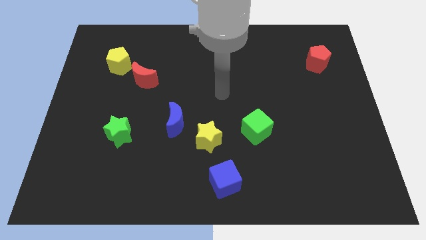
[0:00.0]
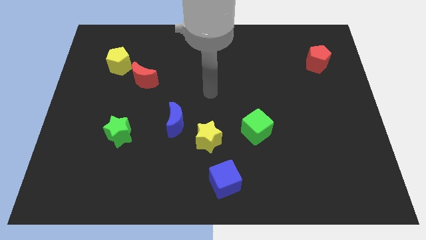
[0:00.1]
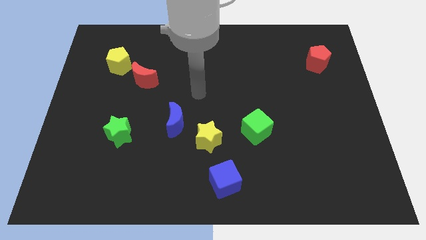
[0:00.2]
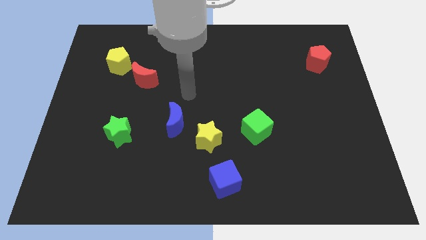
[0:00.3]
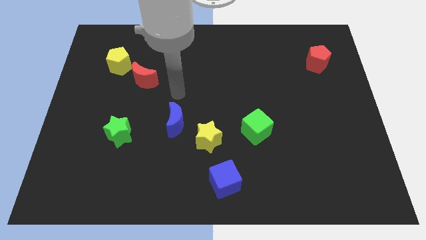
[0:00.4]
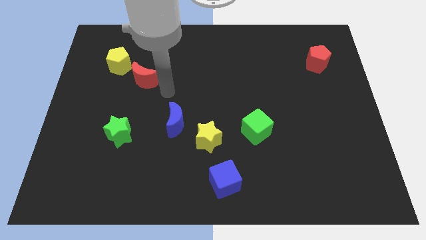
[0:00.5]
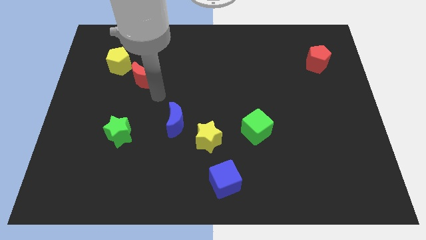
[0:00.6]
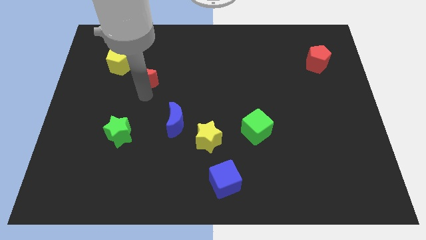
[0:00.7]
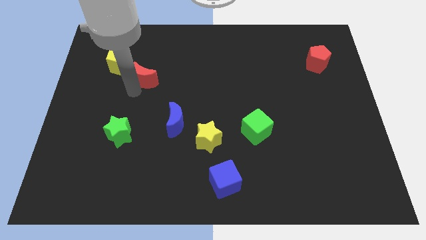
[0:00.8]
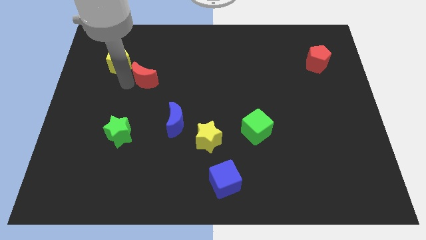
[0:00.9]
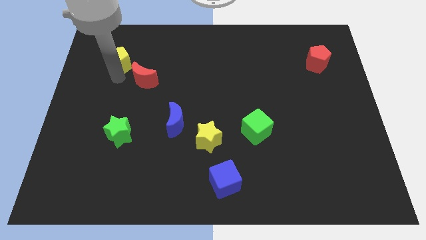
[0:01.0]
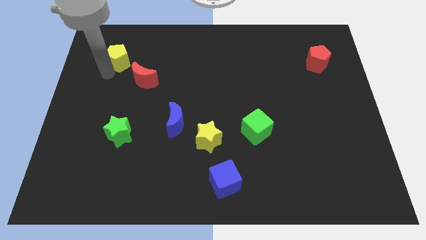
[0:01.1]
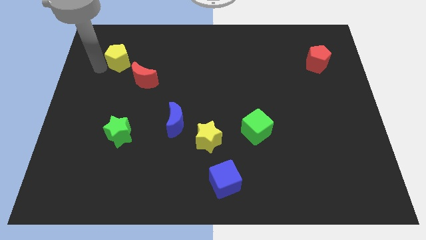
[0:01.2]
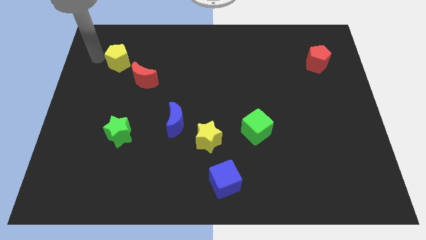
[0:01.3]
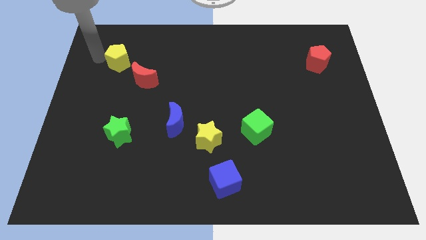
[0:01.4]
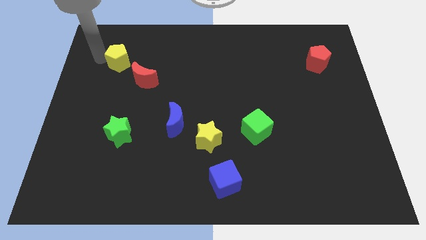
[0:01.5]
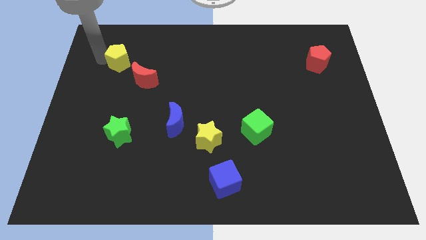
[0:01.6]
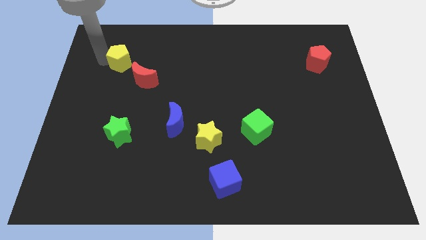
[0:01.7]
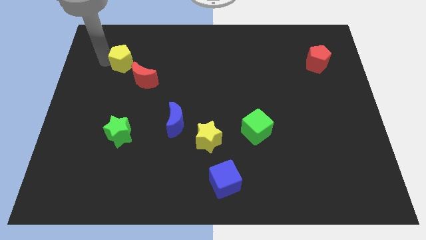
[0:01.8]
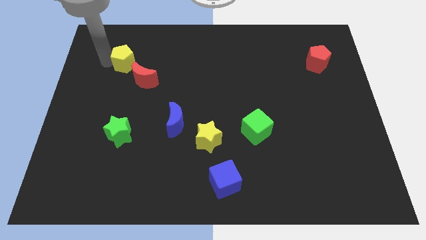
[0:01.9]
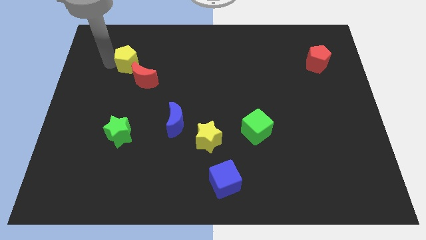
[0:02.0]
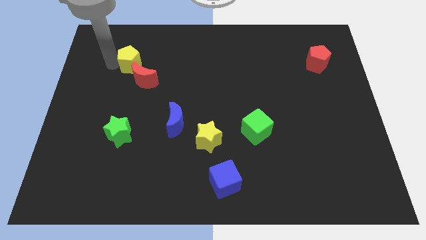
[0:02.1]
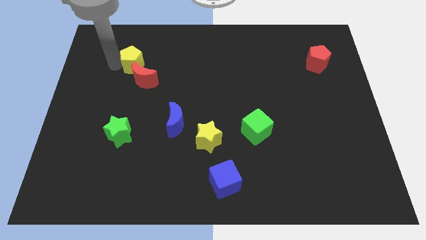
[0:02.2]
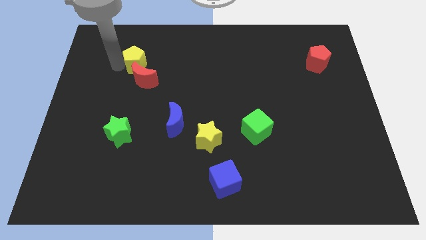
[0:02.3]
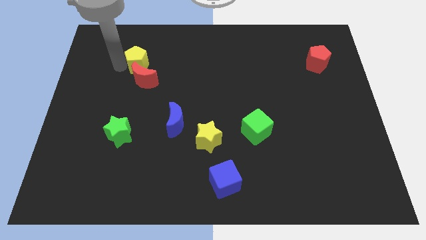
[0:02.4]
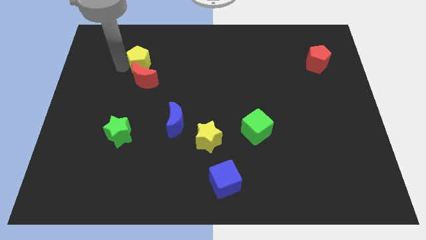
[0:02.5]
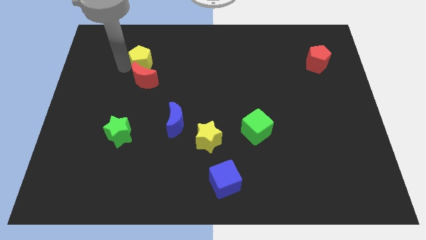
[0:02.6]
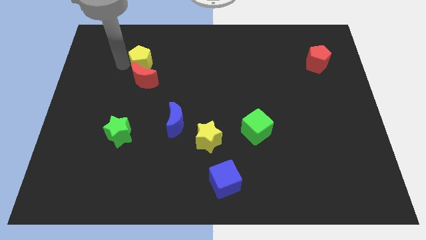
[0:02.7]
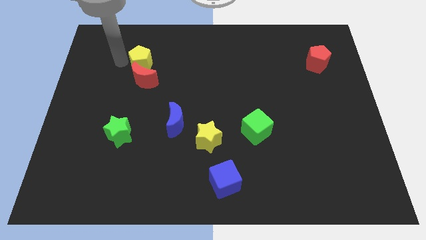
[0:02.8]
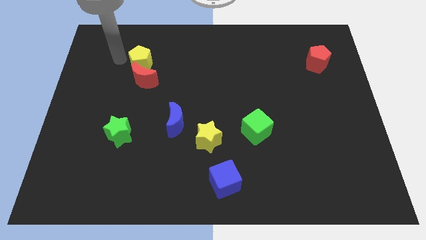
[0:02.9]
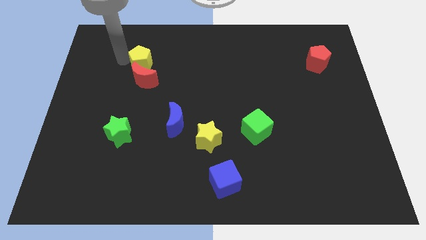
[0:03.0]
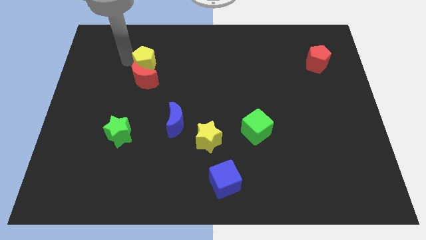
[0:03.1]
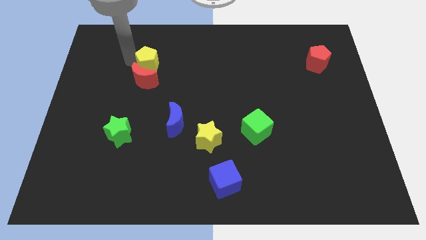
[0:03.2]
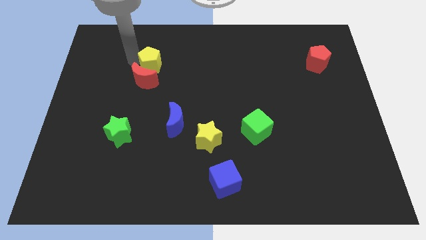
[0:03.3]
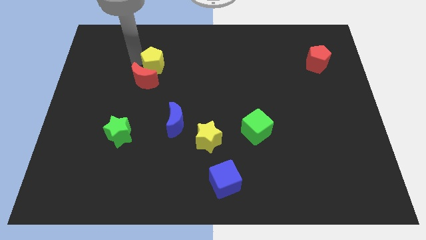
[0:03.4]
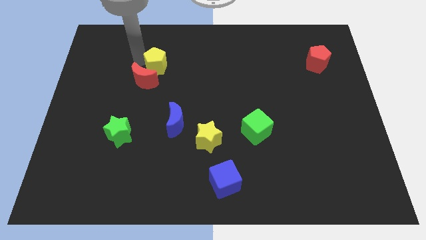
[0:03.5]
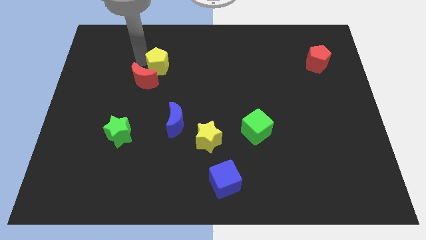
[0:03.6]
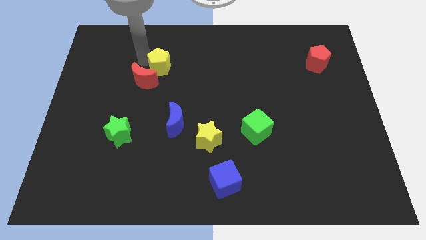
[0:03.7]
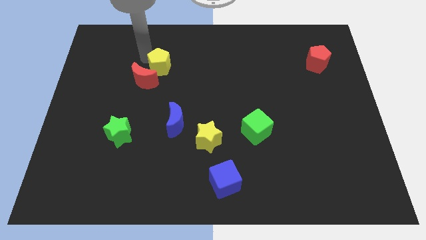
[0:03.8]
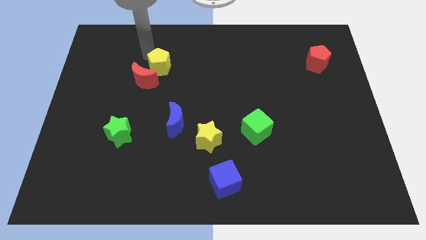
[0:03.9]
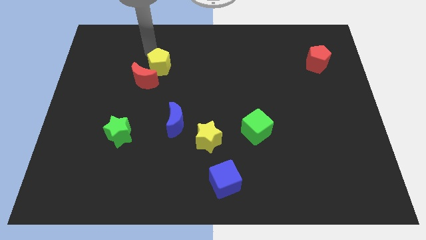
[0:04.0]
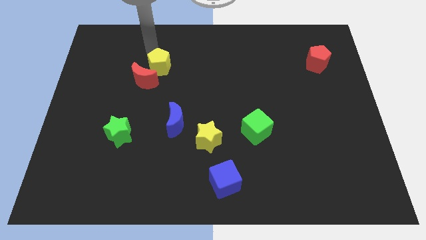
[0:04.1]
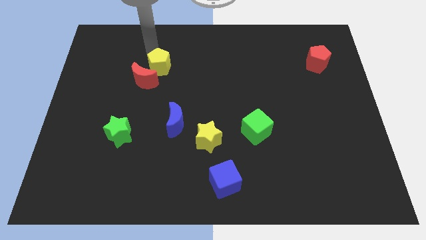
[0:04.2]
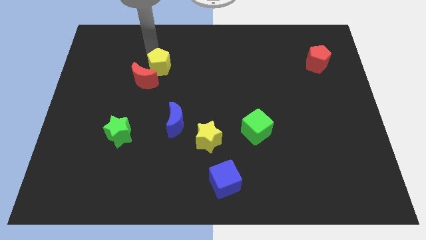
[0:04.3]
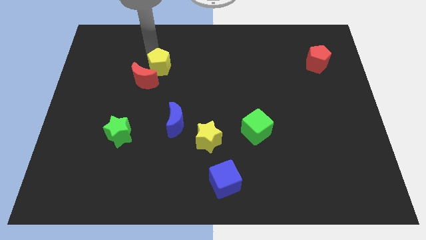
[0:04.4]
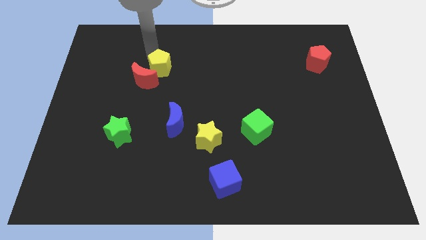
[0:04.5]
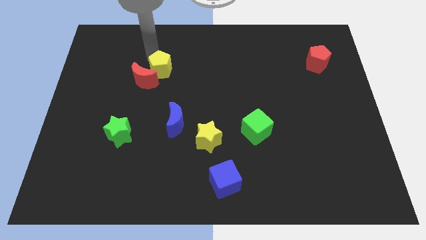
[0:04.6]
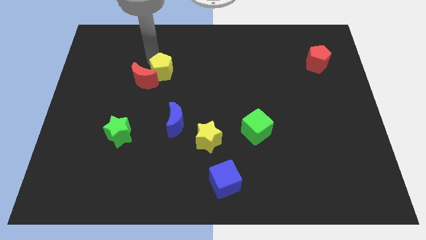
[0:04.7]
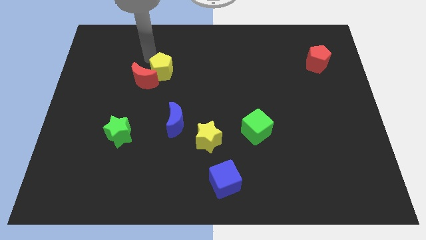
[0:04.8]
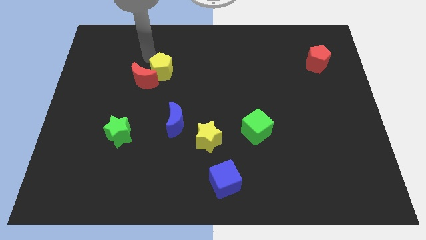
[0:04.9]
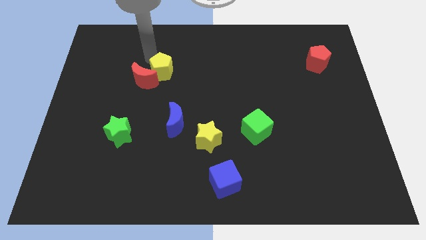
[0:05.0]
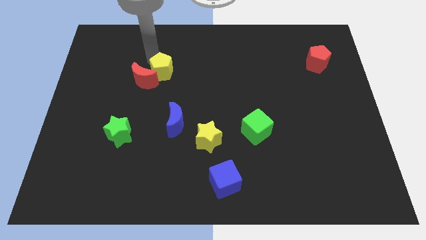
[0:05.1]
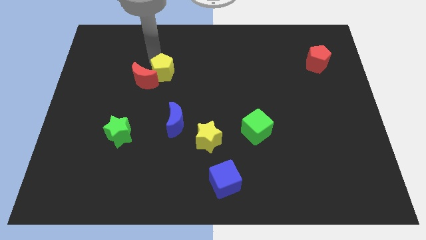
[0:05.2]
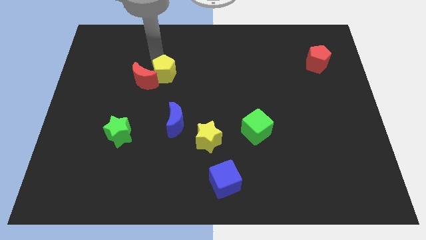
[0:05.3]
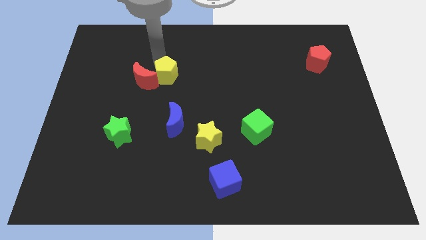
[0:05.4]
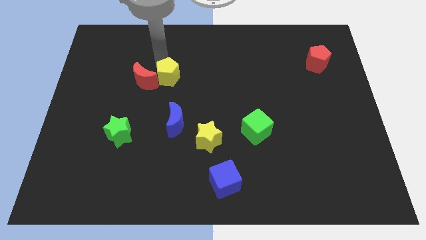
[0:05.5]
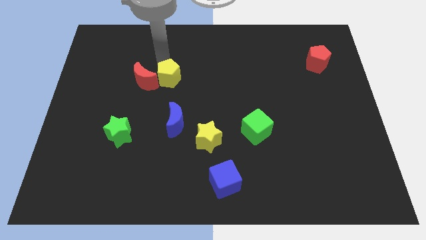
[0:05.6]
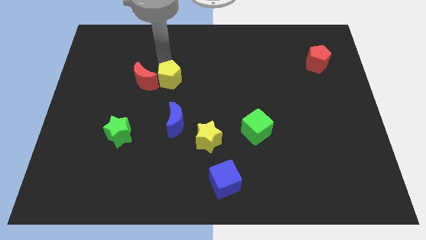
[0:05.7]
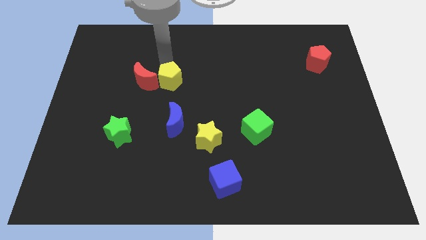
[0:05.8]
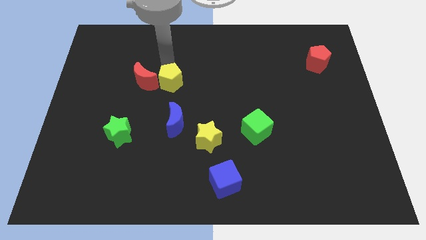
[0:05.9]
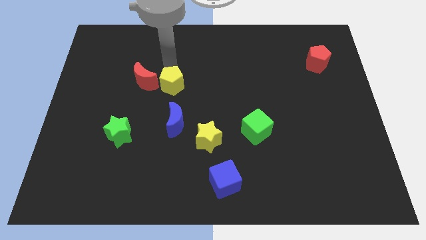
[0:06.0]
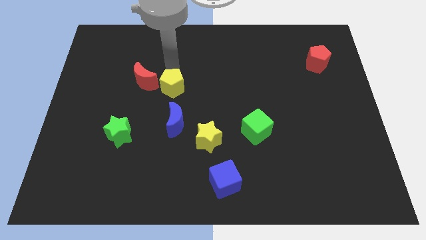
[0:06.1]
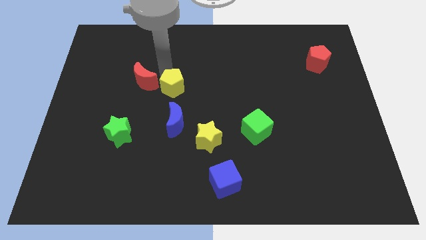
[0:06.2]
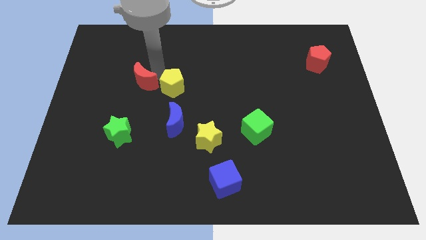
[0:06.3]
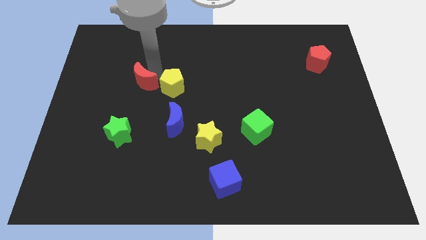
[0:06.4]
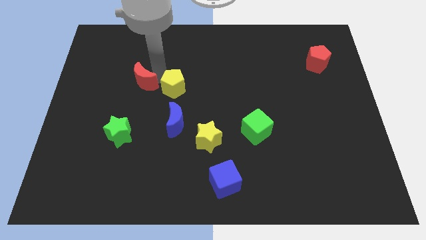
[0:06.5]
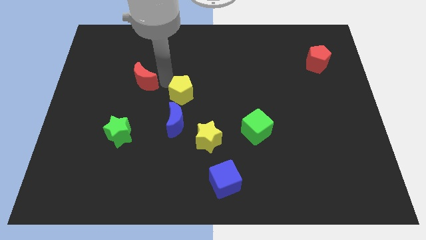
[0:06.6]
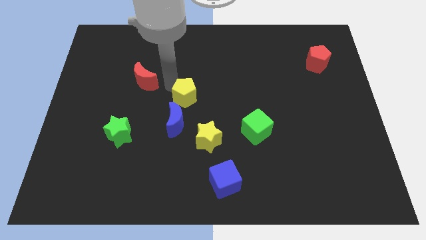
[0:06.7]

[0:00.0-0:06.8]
move the yellow pentagon to the top right of the blue moon

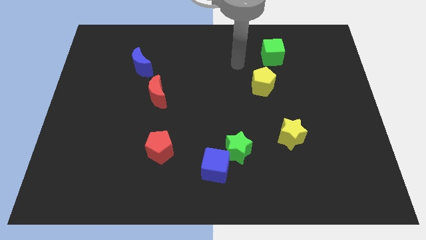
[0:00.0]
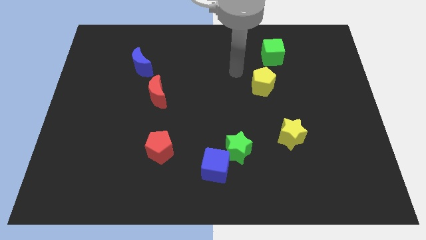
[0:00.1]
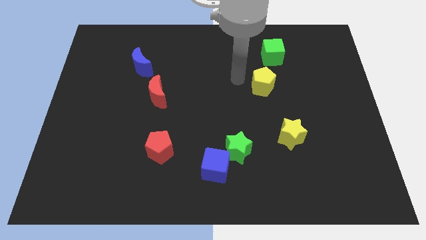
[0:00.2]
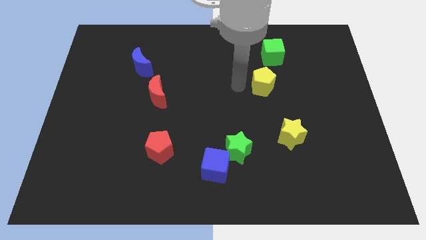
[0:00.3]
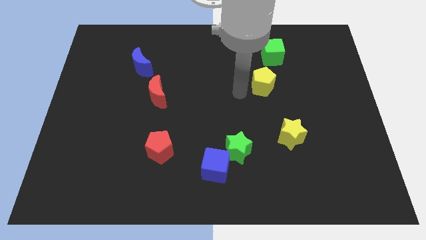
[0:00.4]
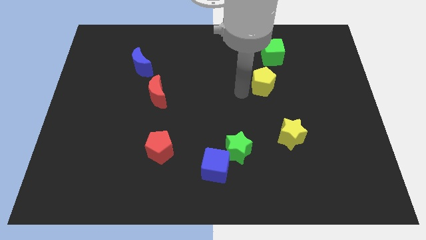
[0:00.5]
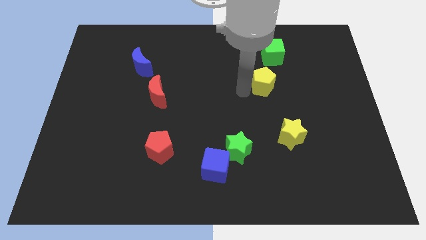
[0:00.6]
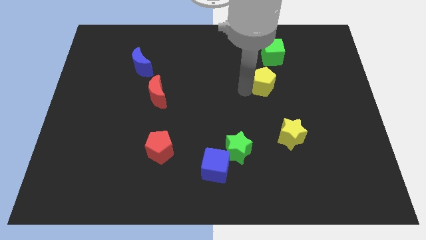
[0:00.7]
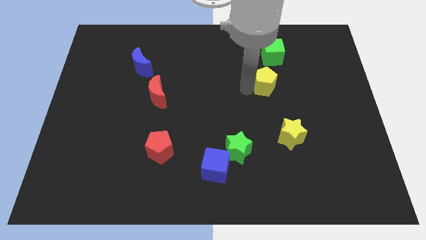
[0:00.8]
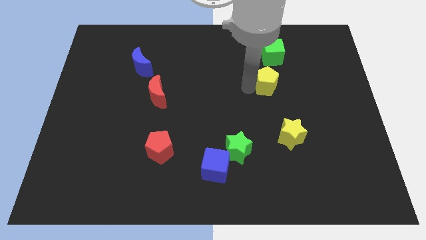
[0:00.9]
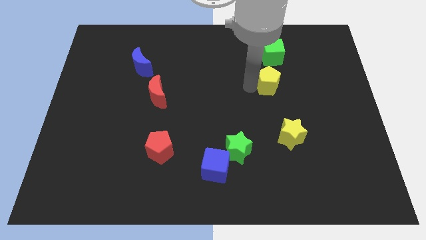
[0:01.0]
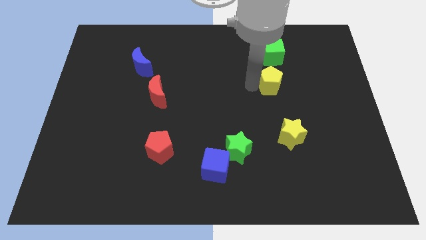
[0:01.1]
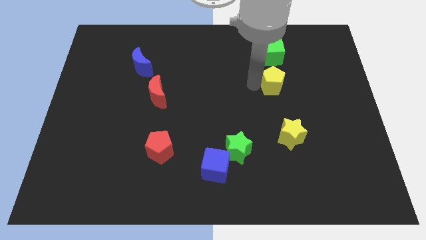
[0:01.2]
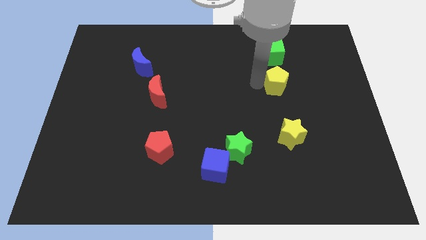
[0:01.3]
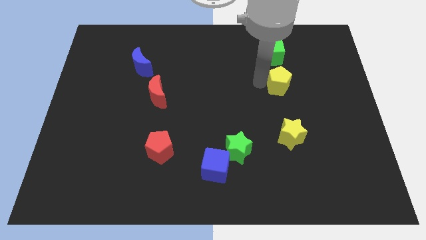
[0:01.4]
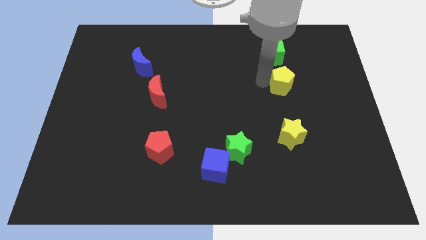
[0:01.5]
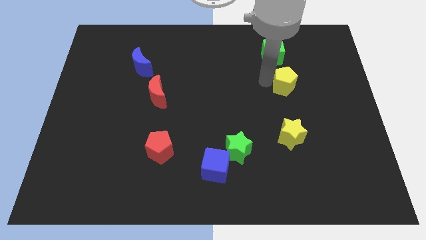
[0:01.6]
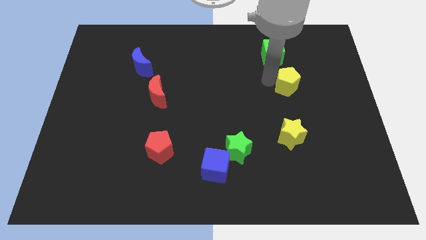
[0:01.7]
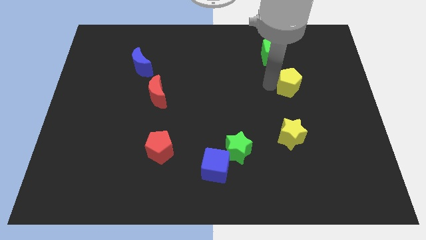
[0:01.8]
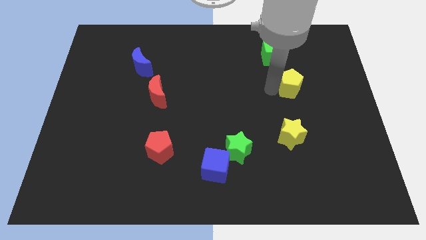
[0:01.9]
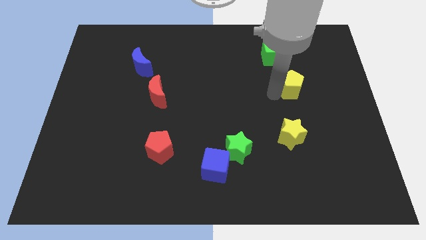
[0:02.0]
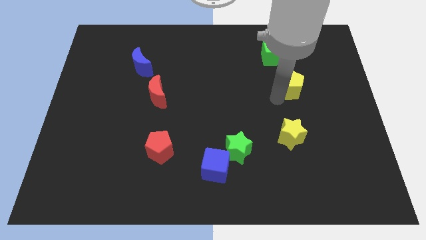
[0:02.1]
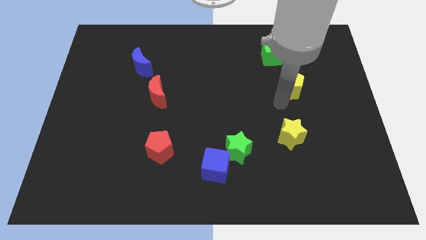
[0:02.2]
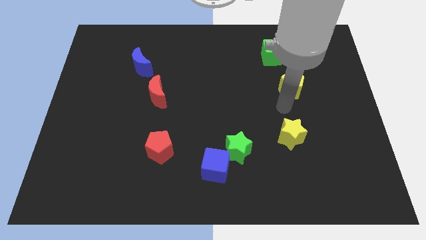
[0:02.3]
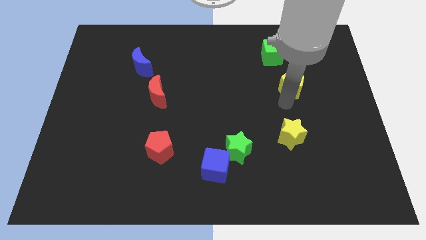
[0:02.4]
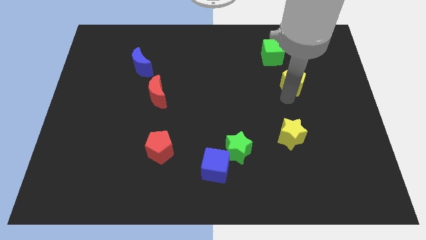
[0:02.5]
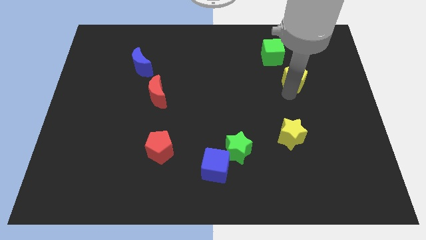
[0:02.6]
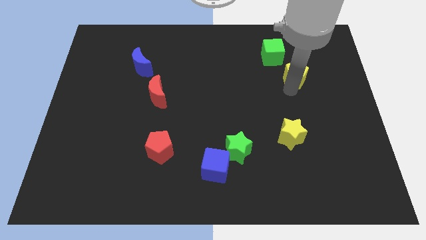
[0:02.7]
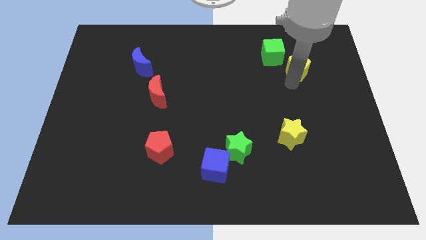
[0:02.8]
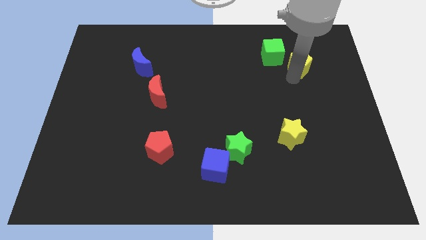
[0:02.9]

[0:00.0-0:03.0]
push the yellow pentagon right of the green cube
